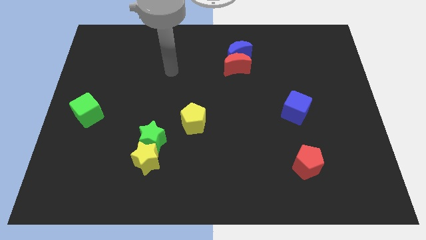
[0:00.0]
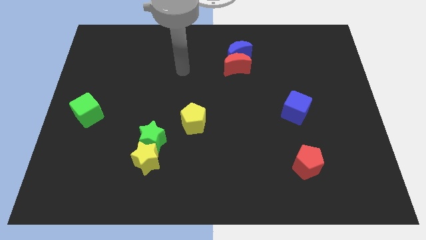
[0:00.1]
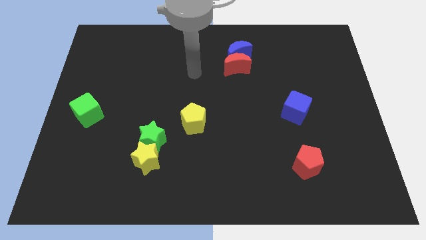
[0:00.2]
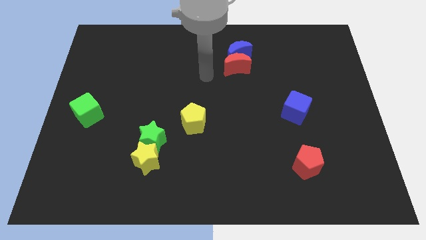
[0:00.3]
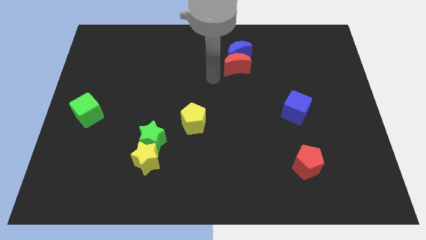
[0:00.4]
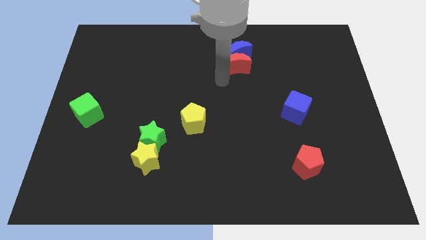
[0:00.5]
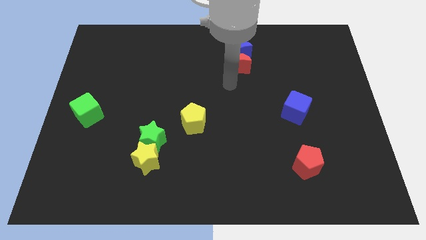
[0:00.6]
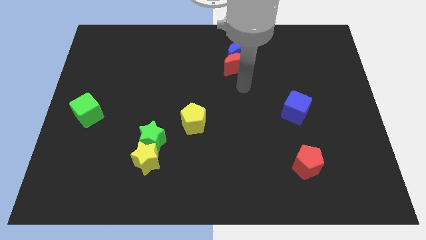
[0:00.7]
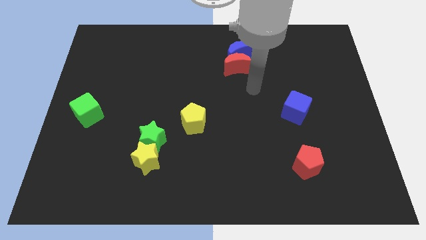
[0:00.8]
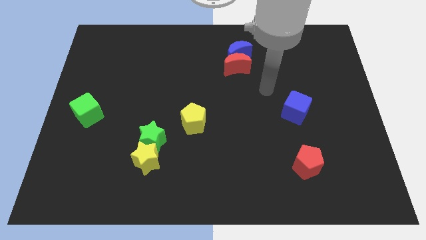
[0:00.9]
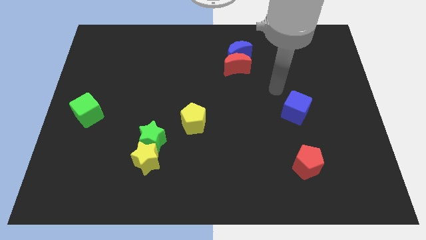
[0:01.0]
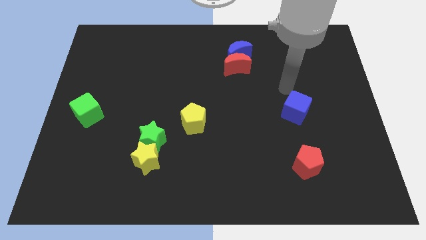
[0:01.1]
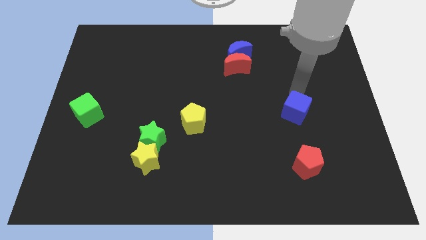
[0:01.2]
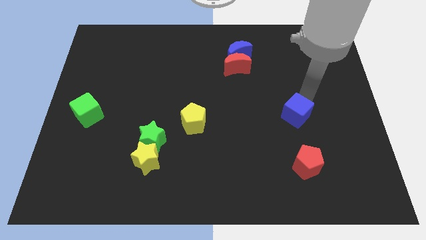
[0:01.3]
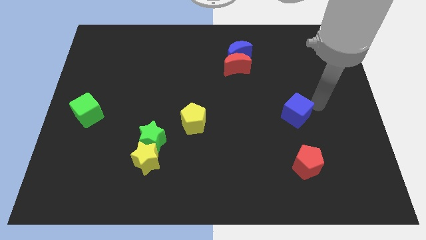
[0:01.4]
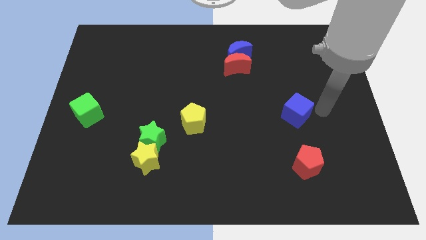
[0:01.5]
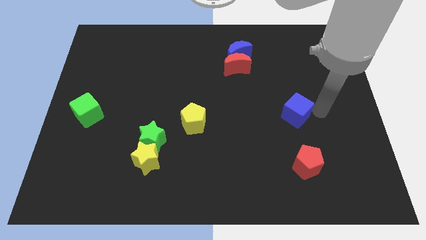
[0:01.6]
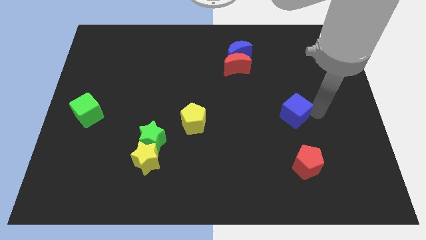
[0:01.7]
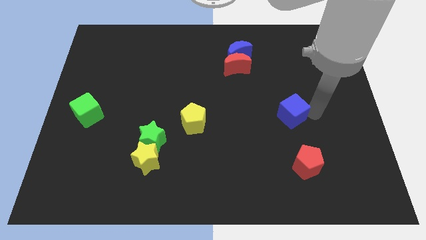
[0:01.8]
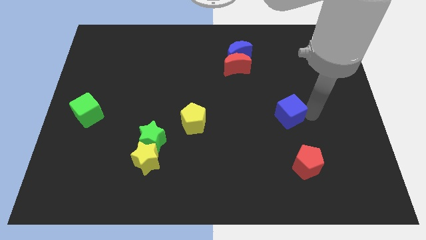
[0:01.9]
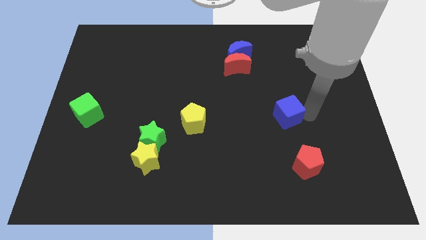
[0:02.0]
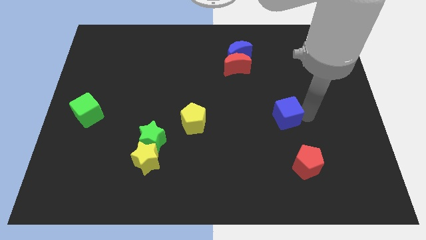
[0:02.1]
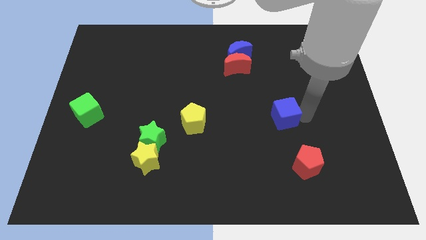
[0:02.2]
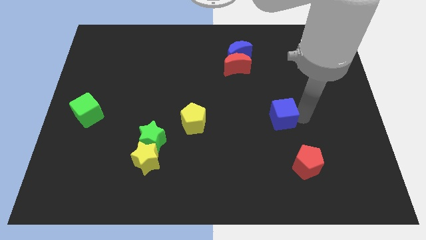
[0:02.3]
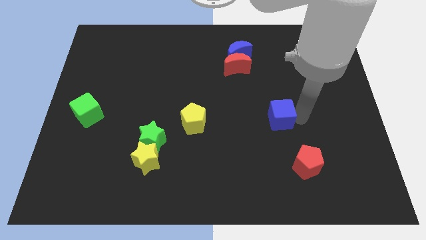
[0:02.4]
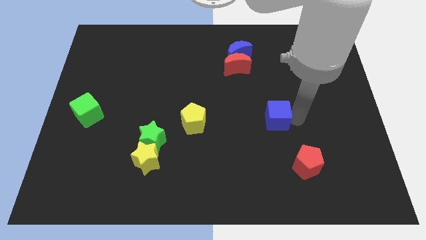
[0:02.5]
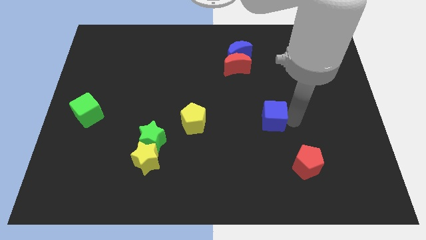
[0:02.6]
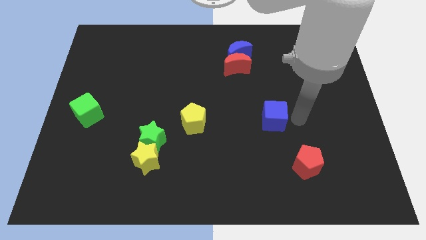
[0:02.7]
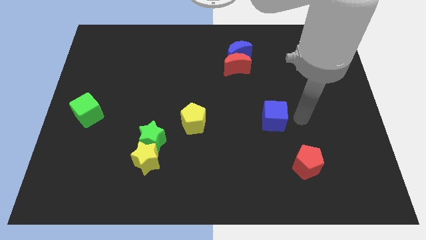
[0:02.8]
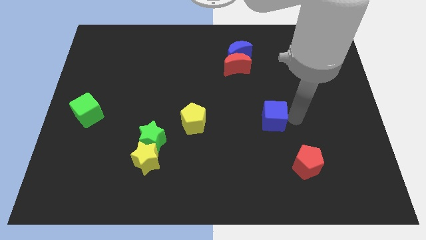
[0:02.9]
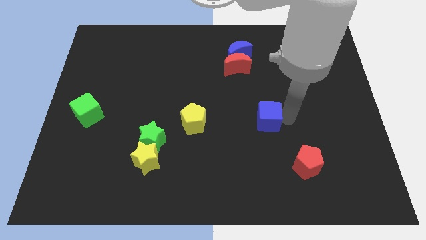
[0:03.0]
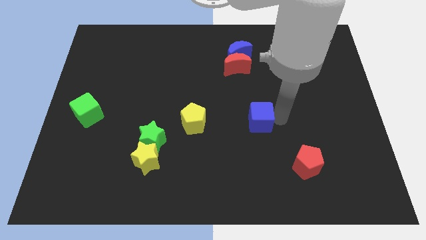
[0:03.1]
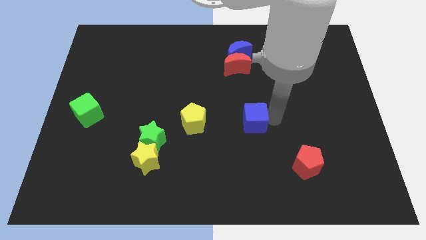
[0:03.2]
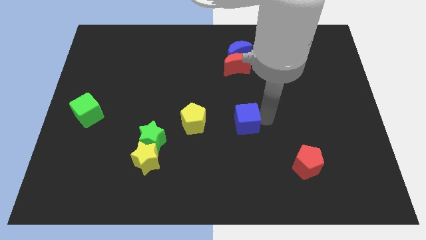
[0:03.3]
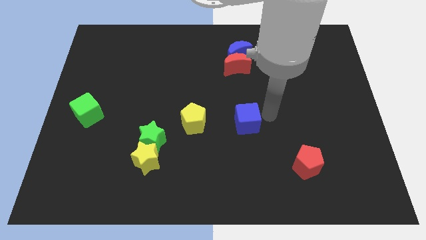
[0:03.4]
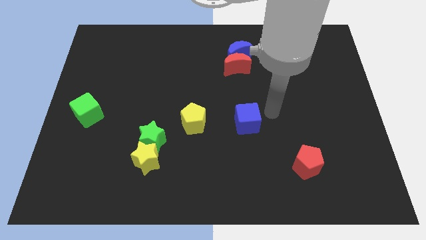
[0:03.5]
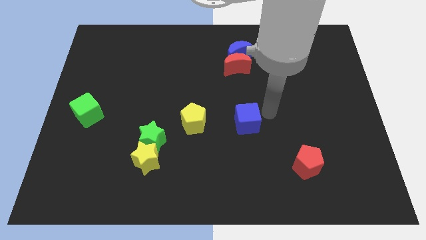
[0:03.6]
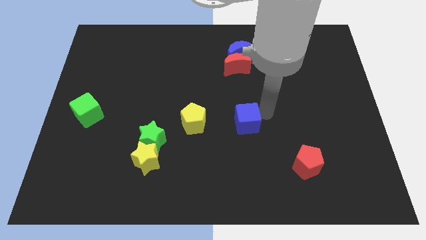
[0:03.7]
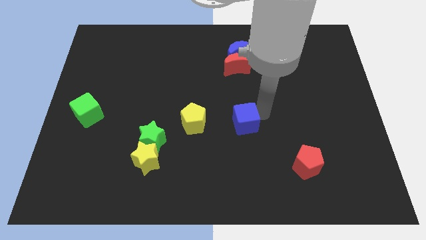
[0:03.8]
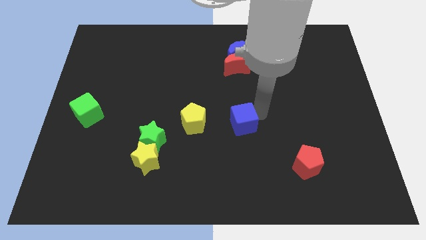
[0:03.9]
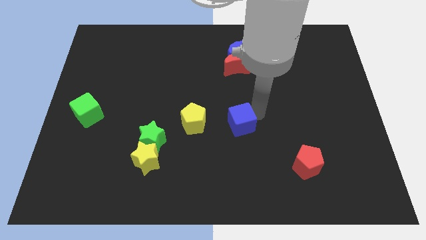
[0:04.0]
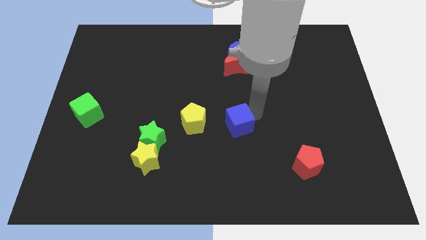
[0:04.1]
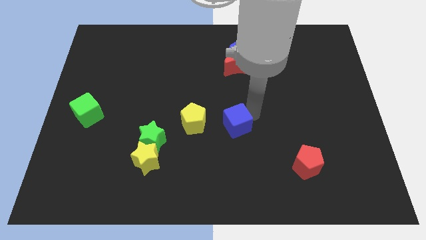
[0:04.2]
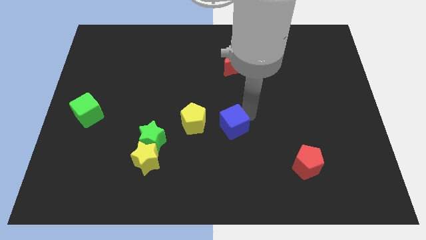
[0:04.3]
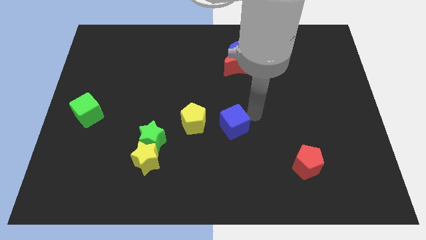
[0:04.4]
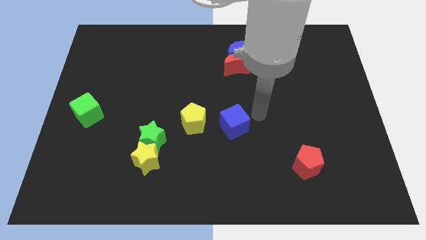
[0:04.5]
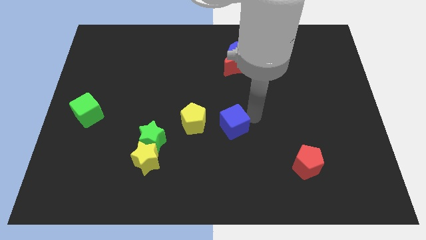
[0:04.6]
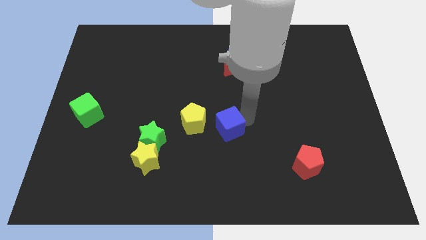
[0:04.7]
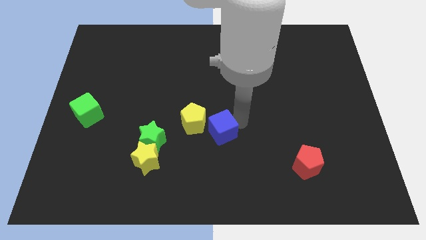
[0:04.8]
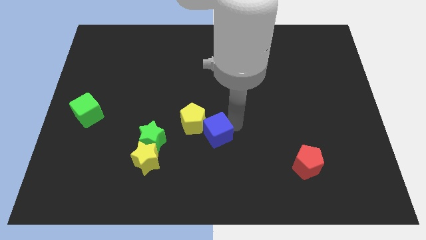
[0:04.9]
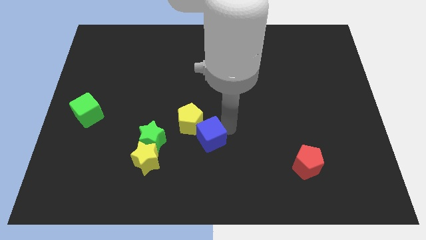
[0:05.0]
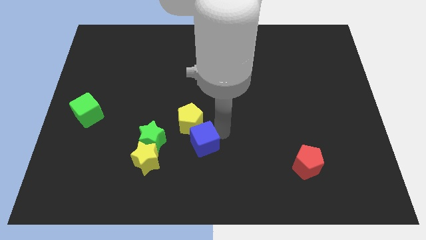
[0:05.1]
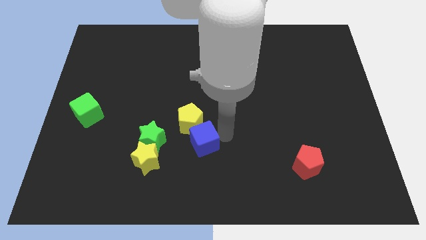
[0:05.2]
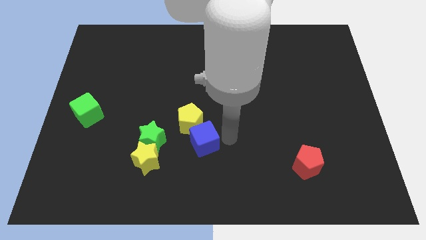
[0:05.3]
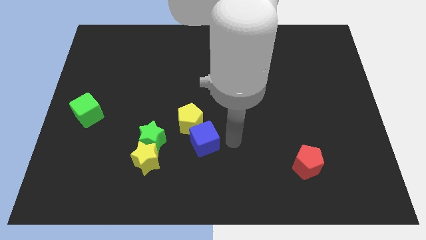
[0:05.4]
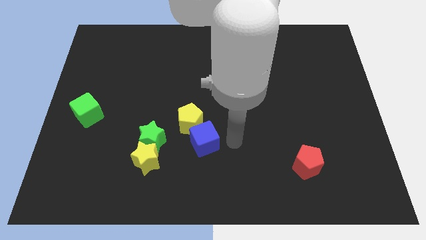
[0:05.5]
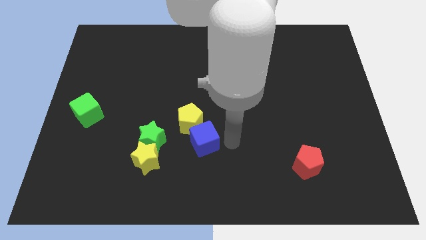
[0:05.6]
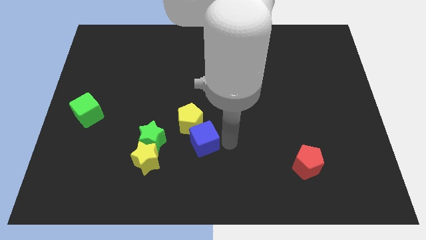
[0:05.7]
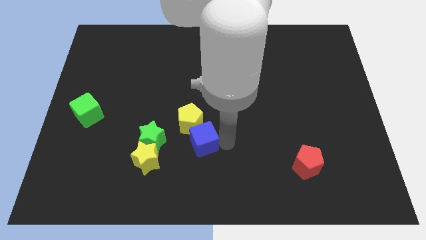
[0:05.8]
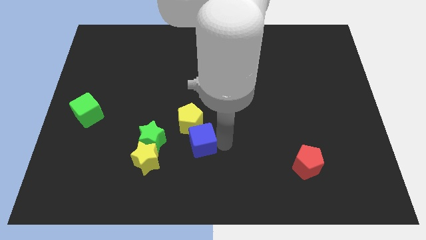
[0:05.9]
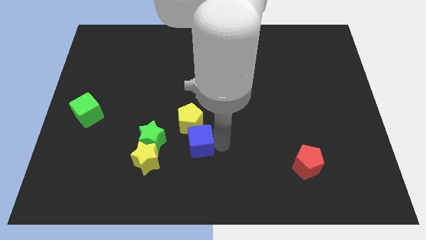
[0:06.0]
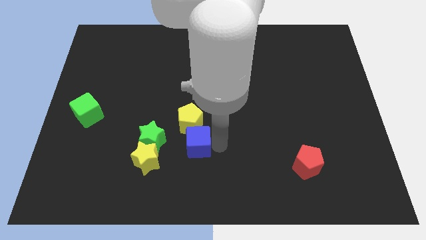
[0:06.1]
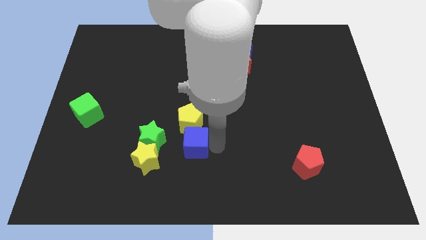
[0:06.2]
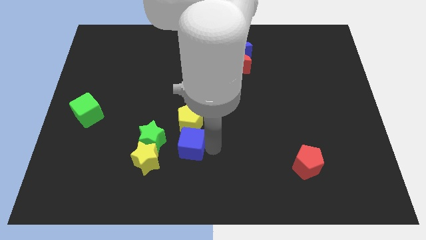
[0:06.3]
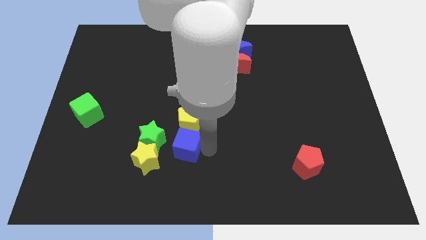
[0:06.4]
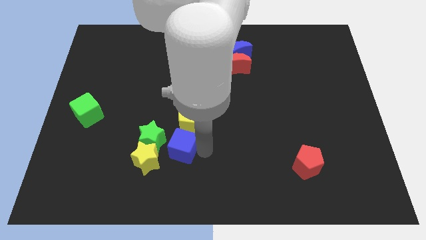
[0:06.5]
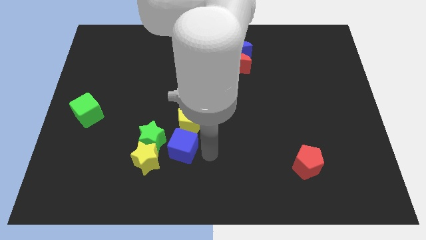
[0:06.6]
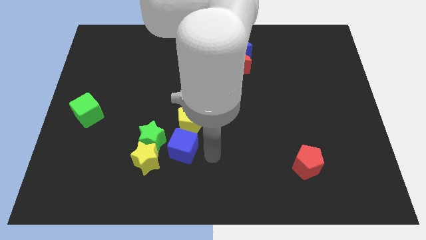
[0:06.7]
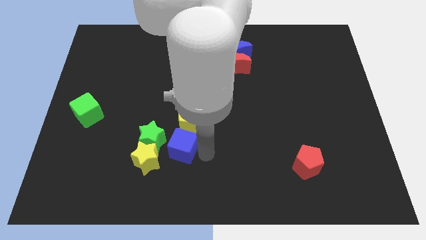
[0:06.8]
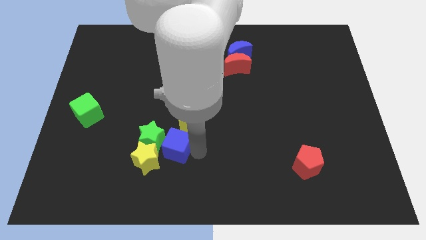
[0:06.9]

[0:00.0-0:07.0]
move the blue cube towards the green star

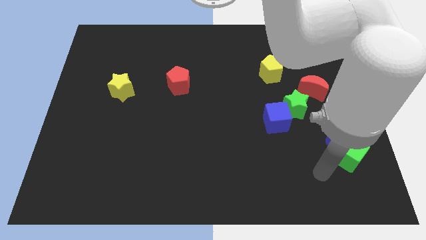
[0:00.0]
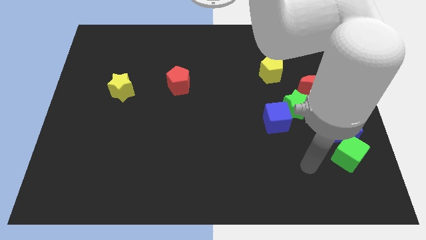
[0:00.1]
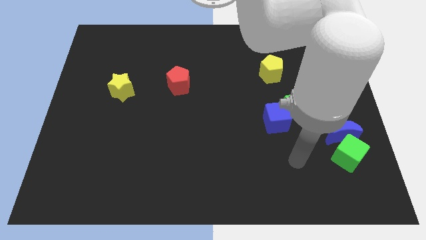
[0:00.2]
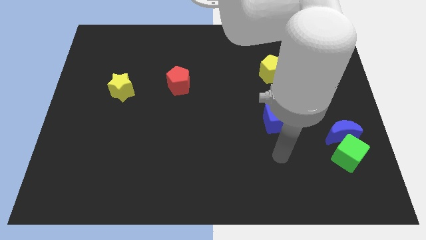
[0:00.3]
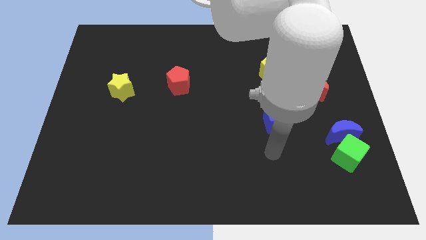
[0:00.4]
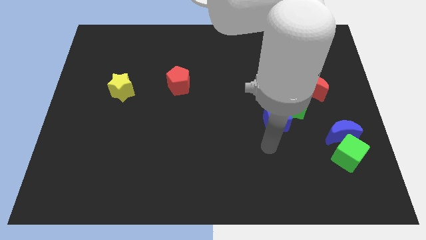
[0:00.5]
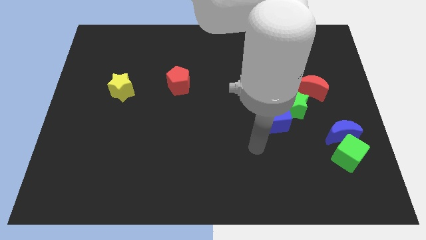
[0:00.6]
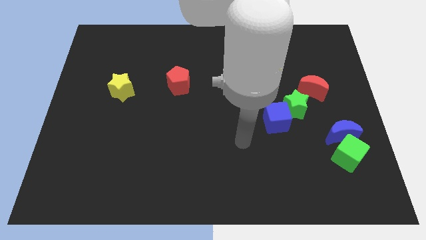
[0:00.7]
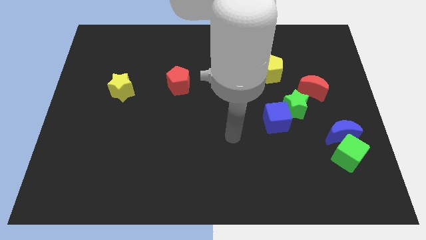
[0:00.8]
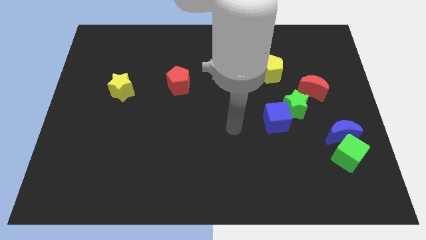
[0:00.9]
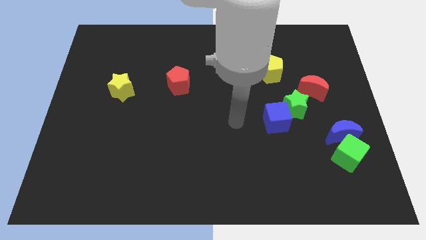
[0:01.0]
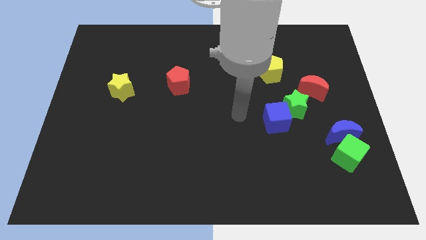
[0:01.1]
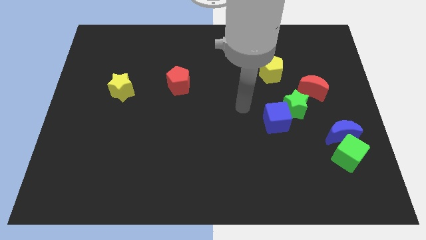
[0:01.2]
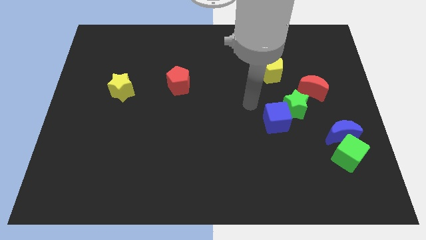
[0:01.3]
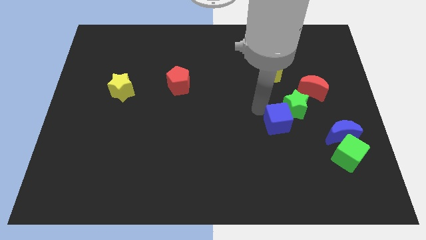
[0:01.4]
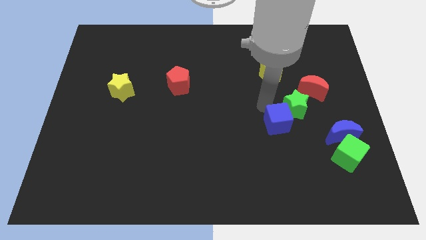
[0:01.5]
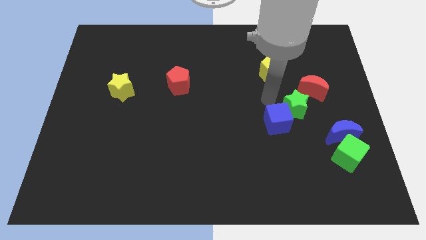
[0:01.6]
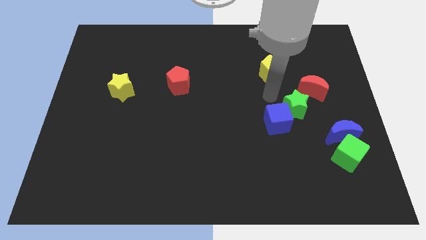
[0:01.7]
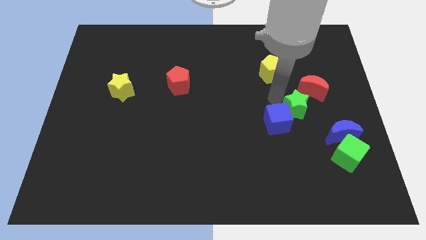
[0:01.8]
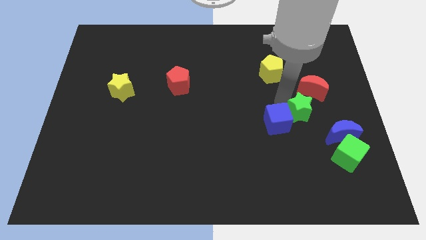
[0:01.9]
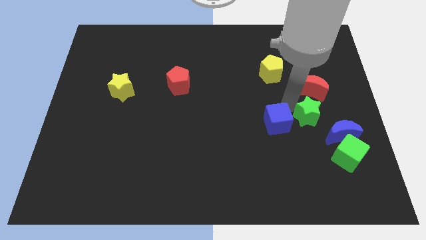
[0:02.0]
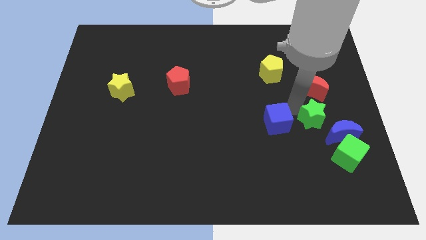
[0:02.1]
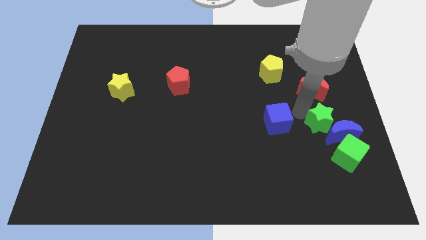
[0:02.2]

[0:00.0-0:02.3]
move the green star next to the blue moon
